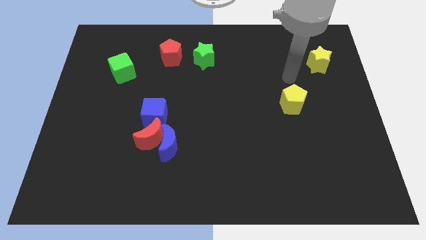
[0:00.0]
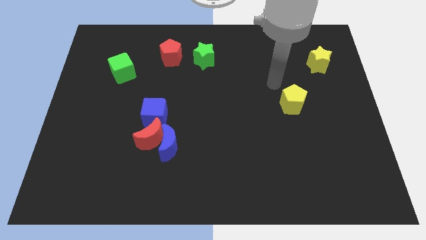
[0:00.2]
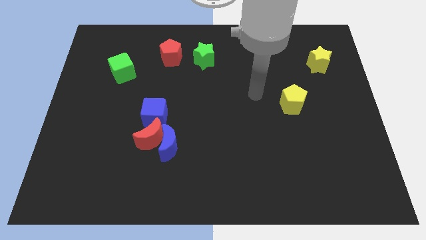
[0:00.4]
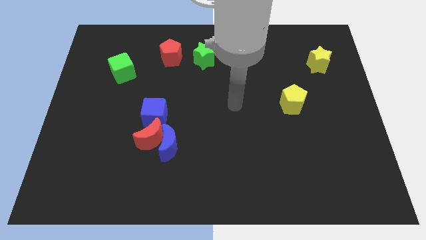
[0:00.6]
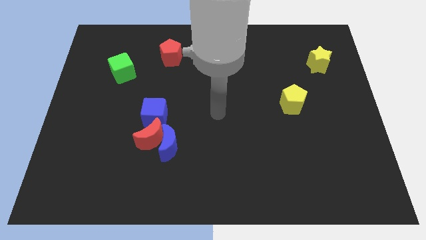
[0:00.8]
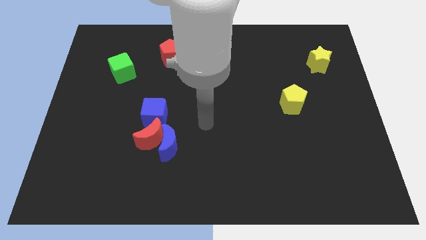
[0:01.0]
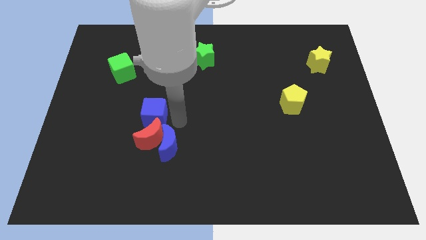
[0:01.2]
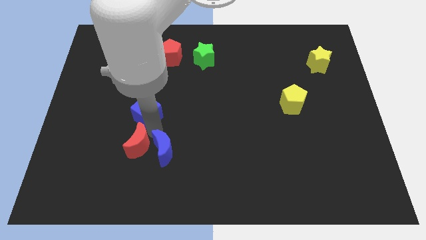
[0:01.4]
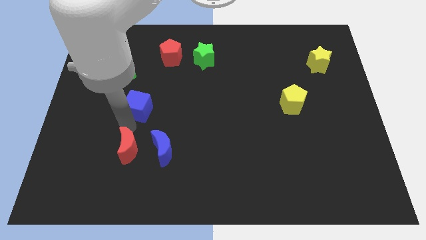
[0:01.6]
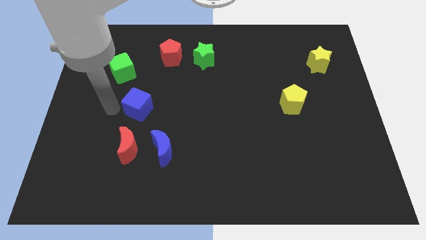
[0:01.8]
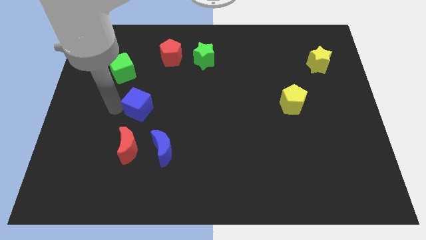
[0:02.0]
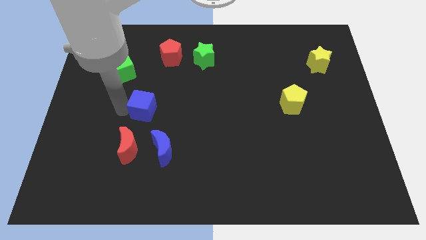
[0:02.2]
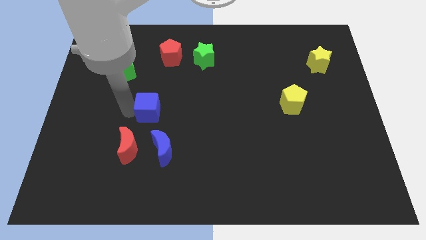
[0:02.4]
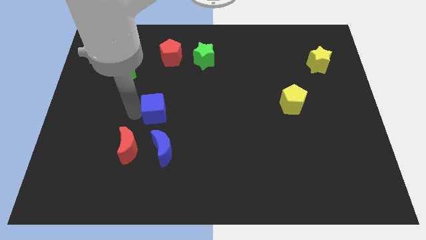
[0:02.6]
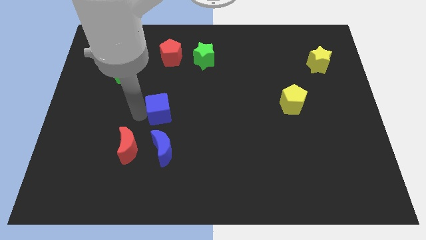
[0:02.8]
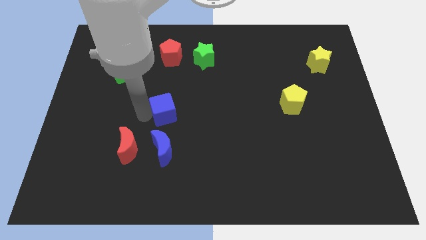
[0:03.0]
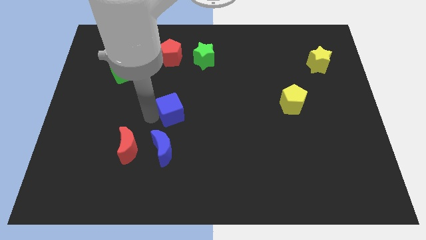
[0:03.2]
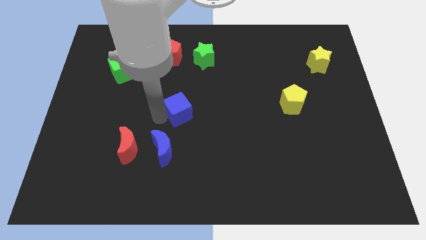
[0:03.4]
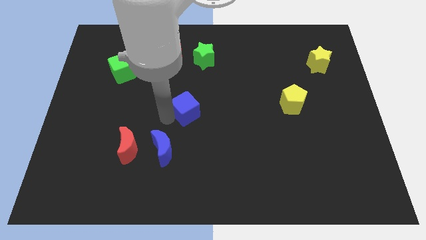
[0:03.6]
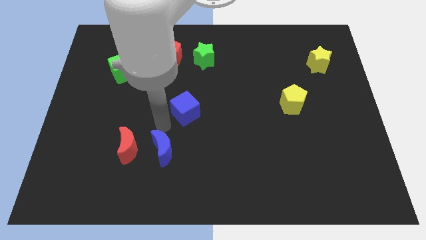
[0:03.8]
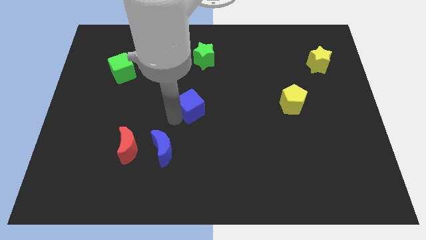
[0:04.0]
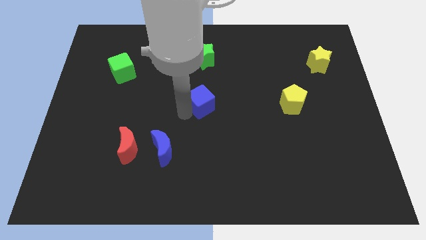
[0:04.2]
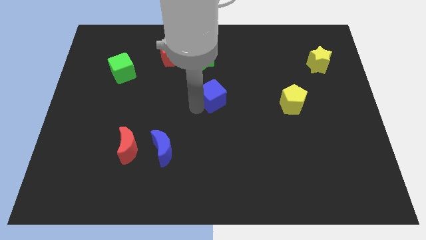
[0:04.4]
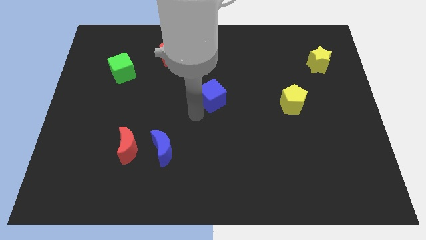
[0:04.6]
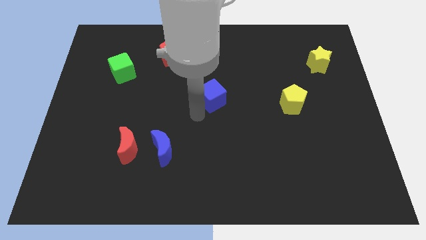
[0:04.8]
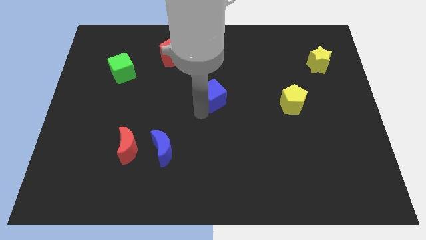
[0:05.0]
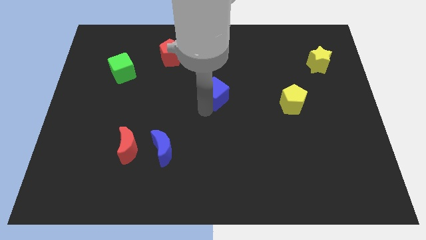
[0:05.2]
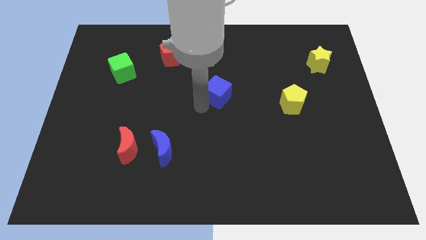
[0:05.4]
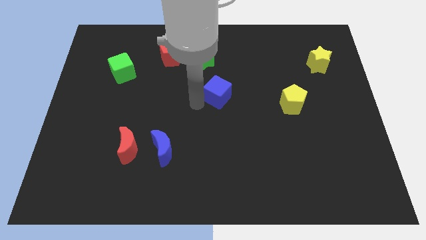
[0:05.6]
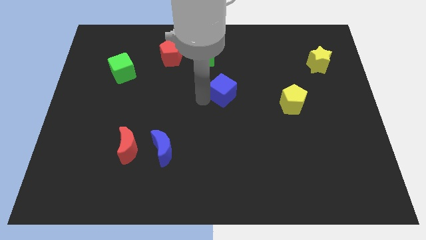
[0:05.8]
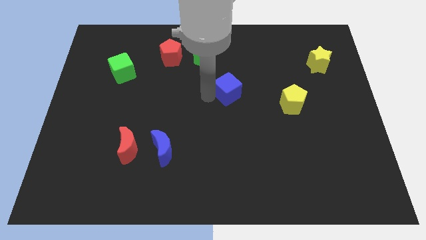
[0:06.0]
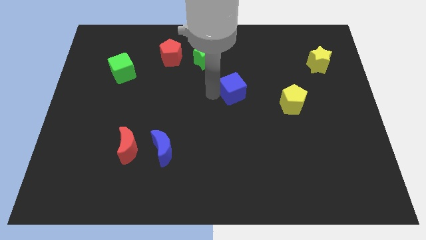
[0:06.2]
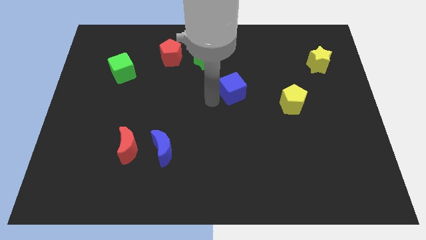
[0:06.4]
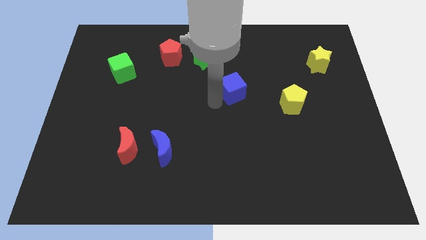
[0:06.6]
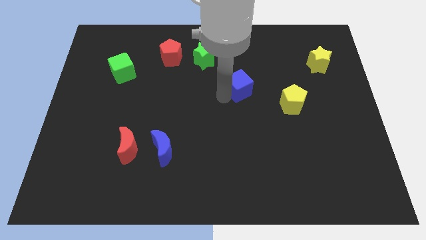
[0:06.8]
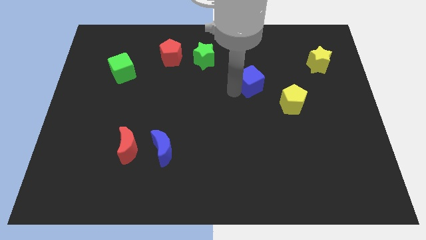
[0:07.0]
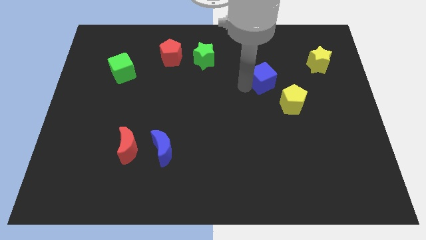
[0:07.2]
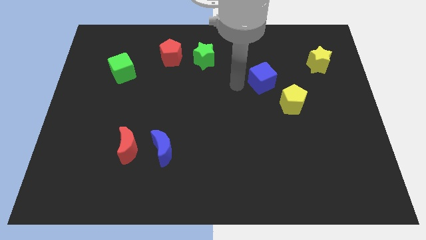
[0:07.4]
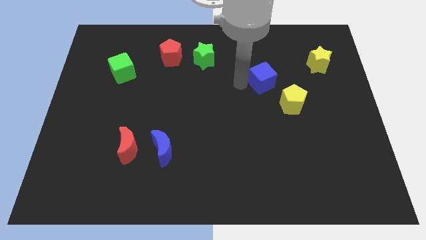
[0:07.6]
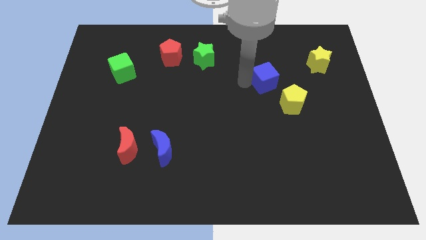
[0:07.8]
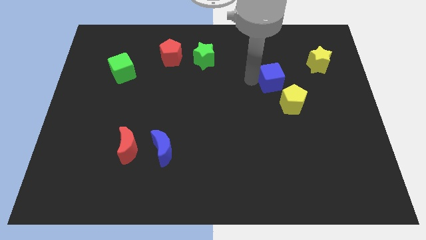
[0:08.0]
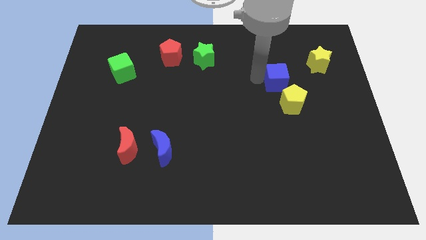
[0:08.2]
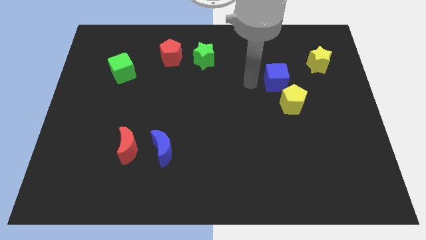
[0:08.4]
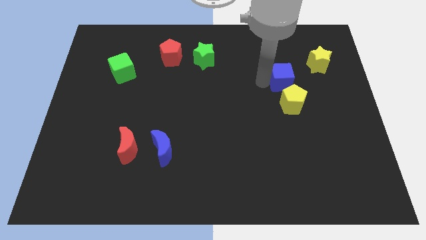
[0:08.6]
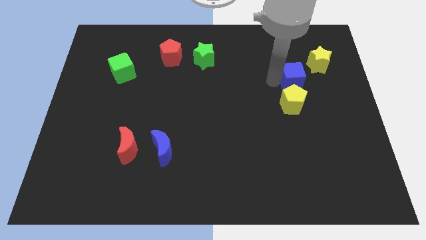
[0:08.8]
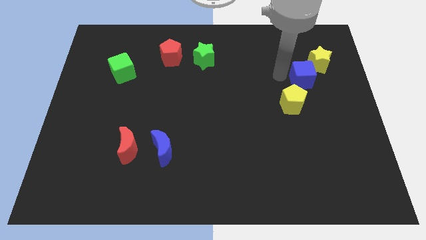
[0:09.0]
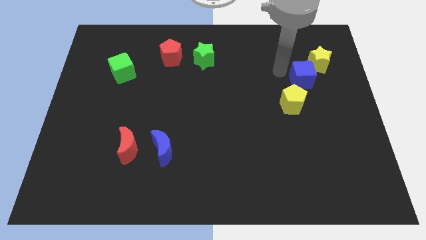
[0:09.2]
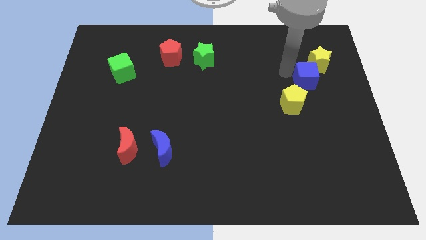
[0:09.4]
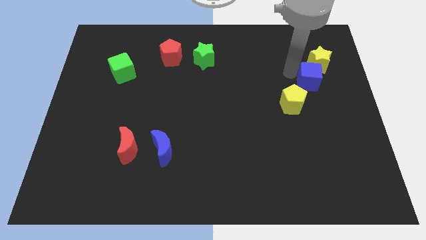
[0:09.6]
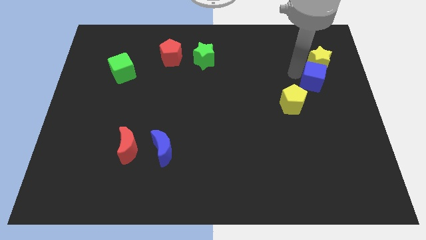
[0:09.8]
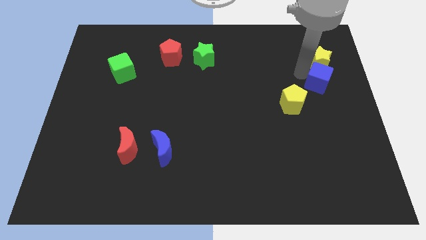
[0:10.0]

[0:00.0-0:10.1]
move the blue cube to the center right

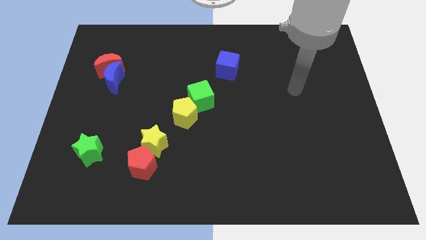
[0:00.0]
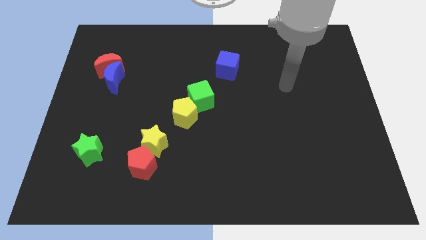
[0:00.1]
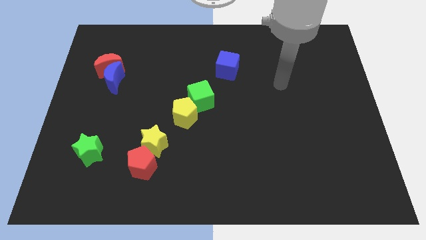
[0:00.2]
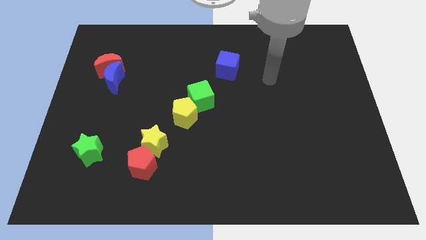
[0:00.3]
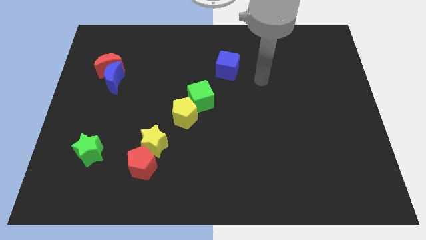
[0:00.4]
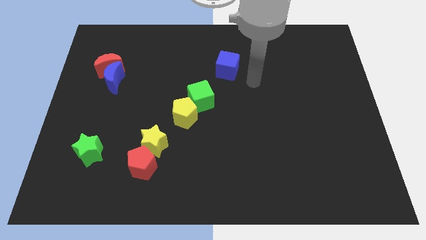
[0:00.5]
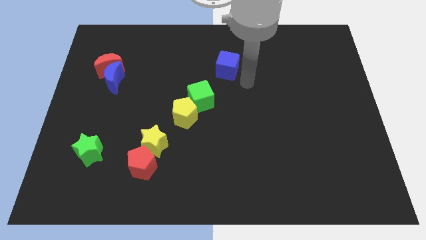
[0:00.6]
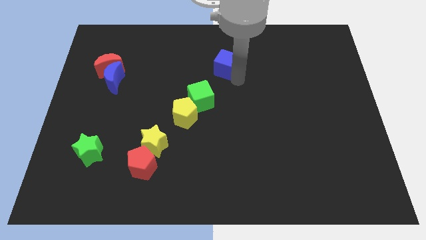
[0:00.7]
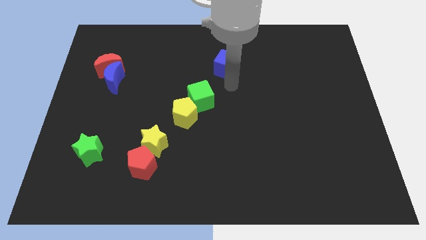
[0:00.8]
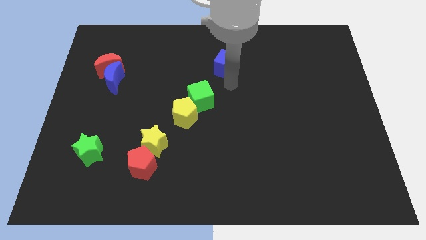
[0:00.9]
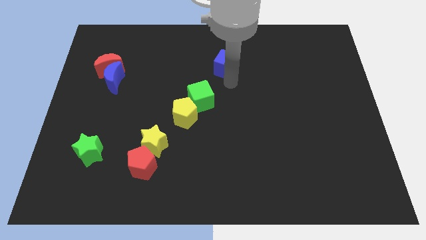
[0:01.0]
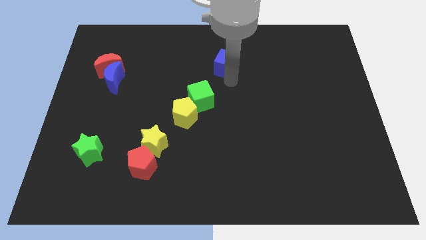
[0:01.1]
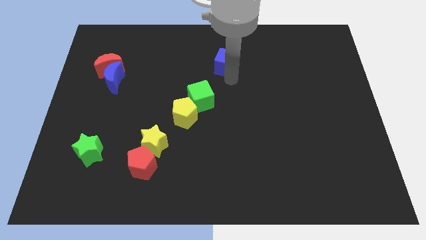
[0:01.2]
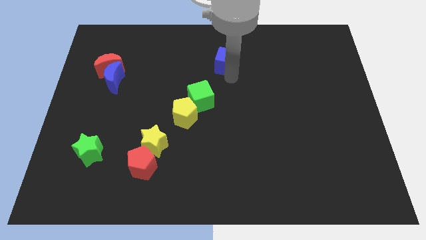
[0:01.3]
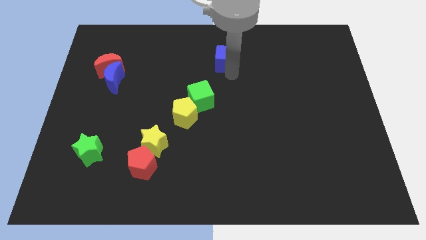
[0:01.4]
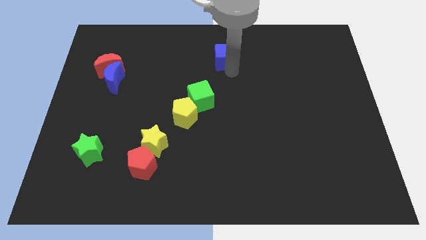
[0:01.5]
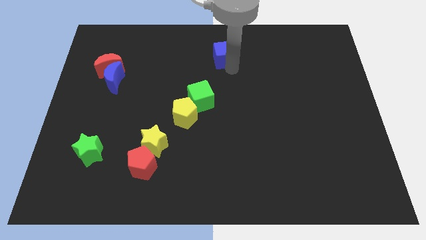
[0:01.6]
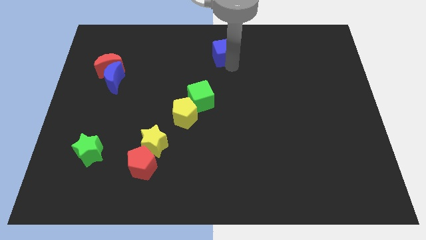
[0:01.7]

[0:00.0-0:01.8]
put the blue cube to the top side

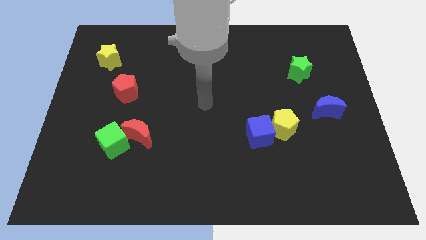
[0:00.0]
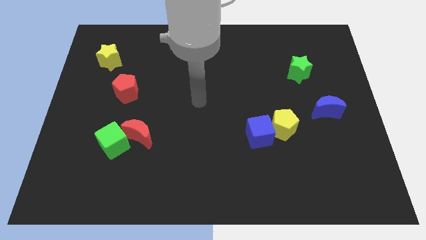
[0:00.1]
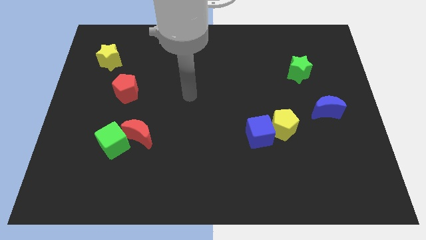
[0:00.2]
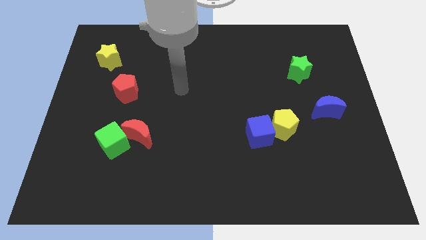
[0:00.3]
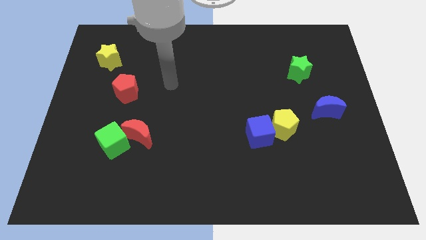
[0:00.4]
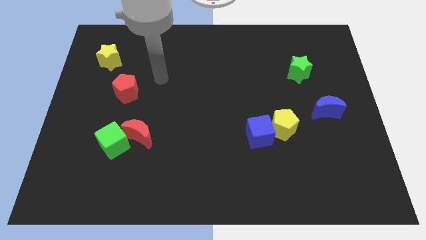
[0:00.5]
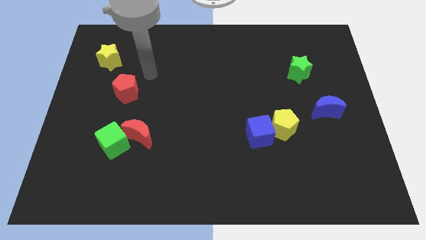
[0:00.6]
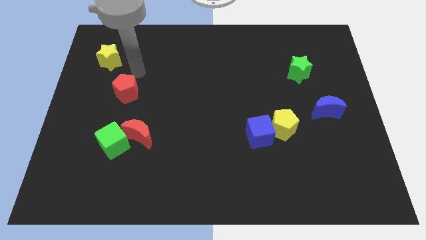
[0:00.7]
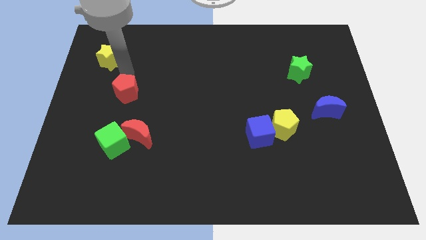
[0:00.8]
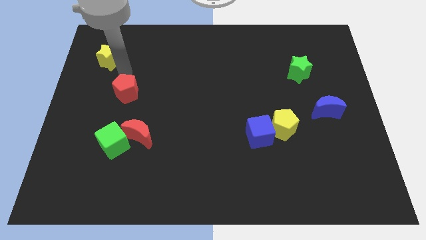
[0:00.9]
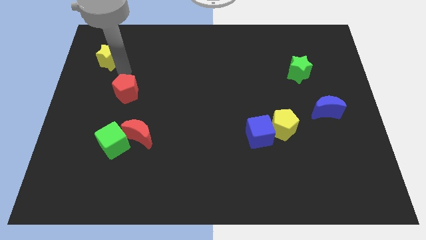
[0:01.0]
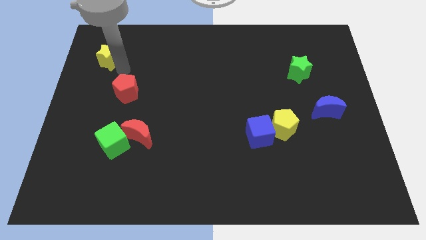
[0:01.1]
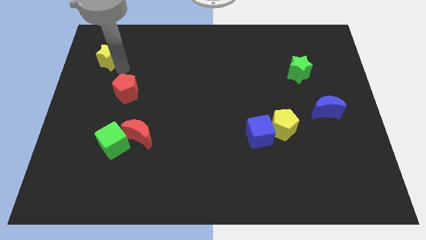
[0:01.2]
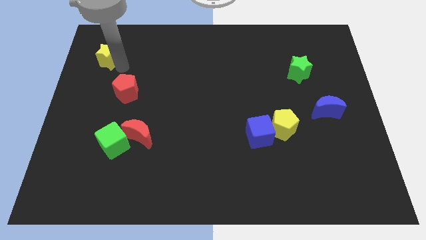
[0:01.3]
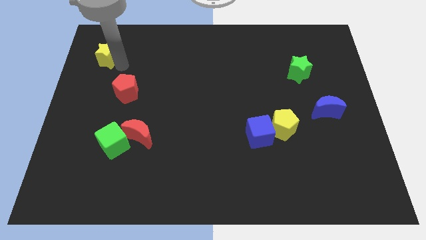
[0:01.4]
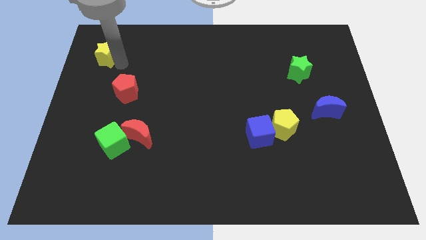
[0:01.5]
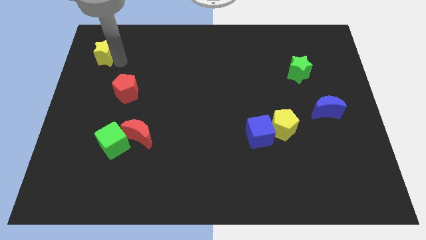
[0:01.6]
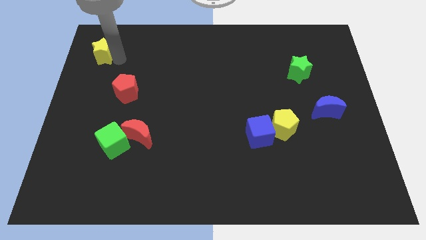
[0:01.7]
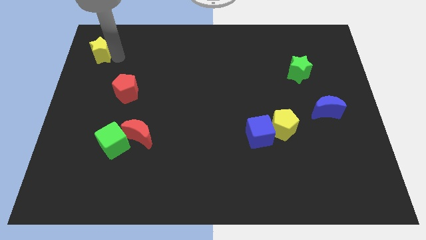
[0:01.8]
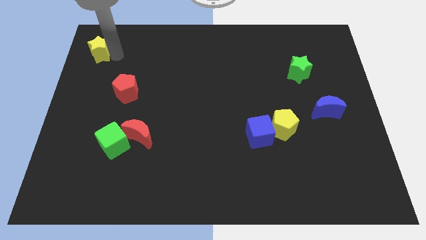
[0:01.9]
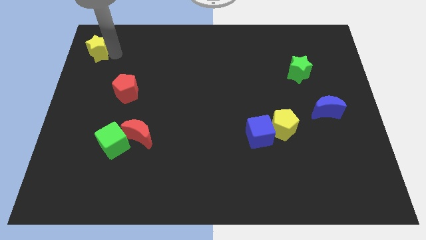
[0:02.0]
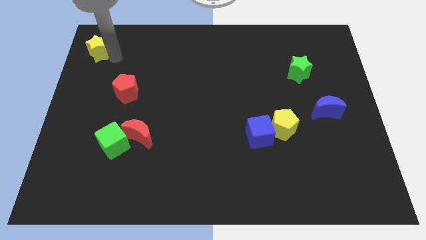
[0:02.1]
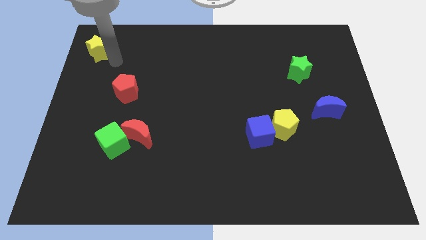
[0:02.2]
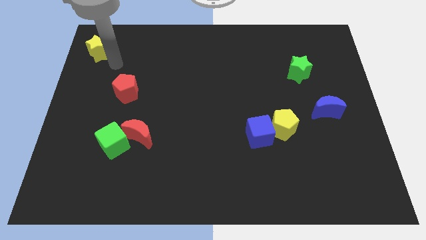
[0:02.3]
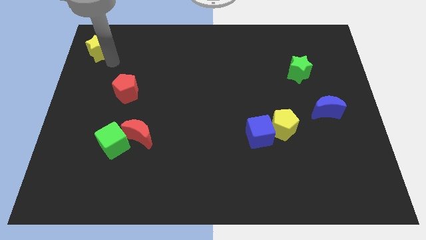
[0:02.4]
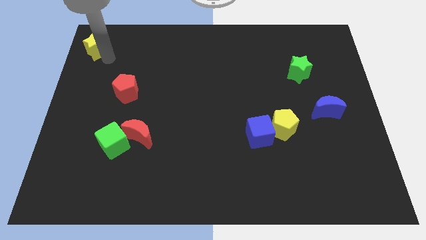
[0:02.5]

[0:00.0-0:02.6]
slide the yellow star to the top left of the board
